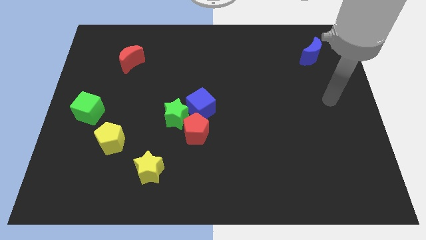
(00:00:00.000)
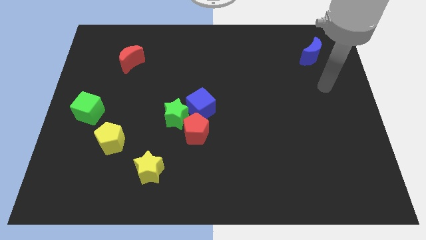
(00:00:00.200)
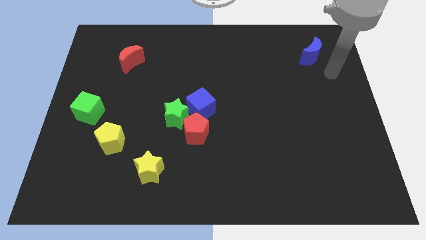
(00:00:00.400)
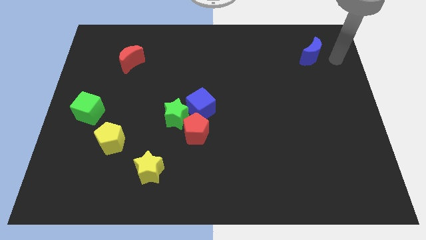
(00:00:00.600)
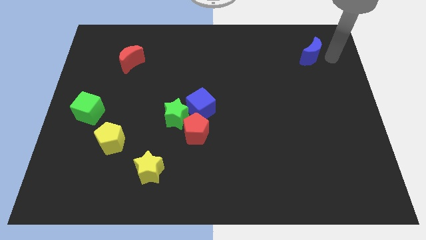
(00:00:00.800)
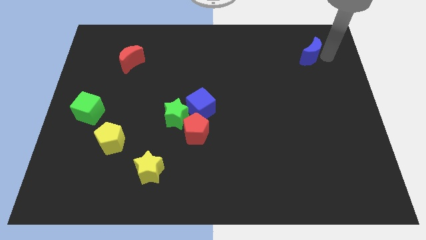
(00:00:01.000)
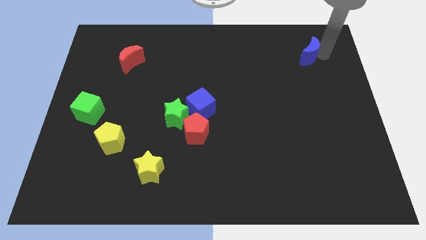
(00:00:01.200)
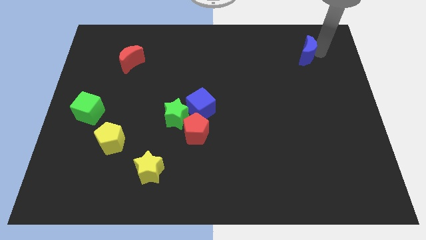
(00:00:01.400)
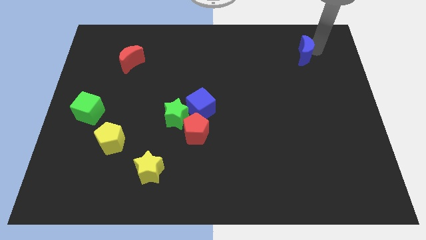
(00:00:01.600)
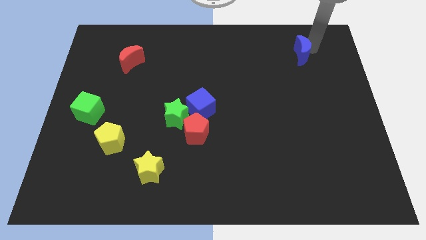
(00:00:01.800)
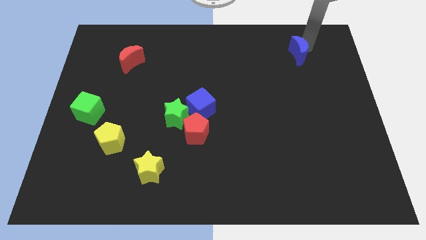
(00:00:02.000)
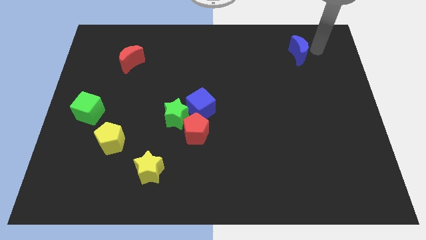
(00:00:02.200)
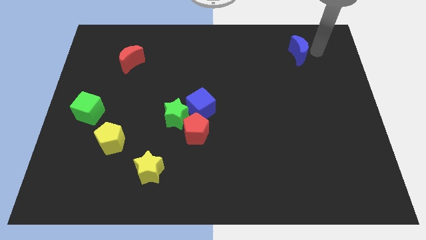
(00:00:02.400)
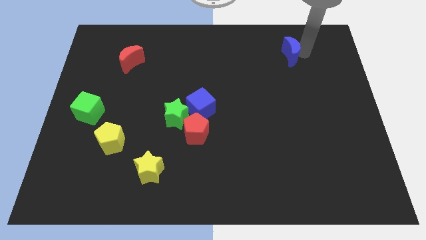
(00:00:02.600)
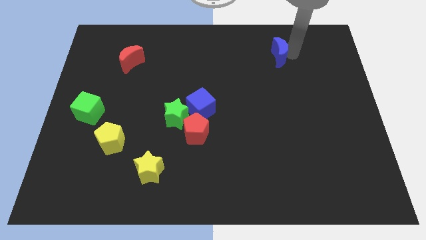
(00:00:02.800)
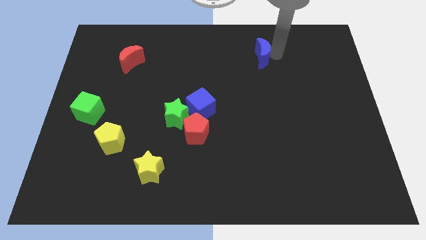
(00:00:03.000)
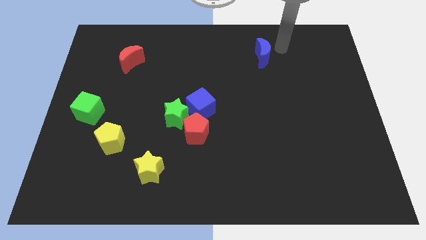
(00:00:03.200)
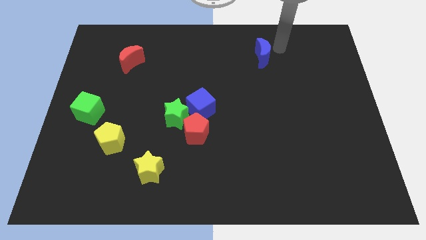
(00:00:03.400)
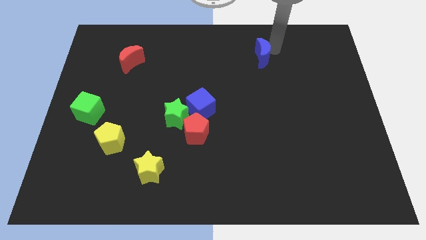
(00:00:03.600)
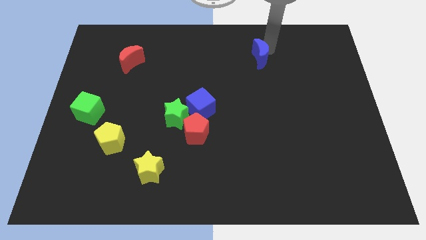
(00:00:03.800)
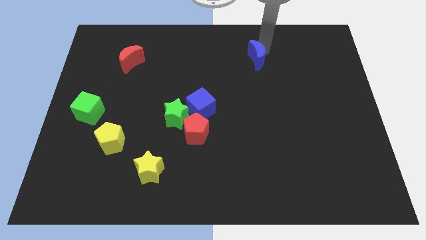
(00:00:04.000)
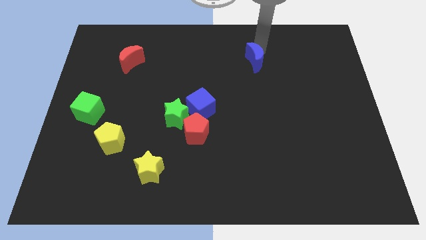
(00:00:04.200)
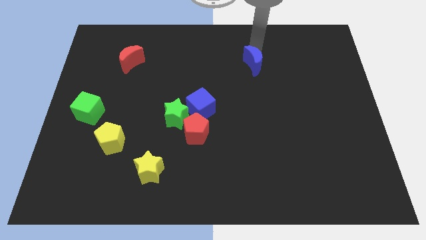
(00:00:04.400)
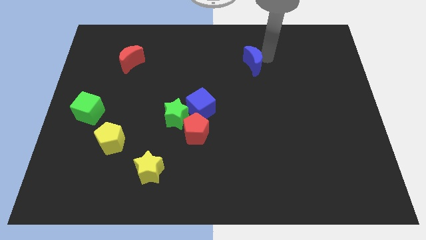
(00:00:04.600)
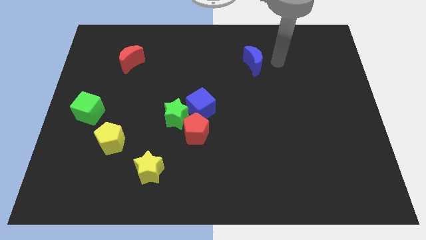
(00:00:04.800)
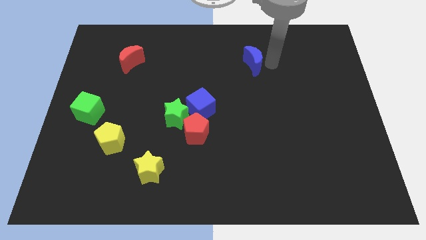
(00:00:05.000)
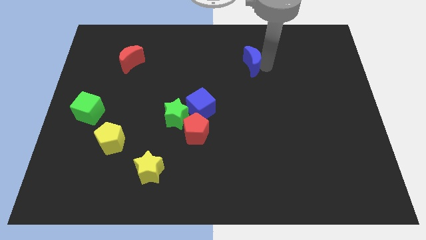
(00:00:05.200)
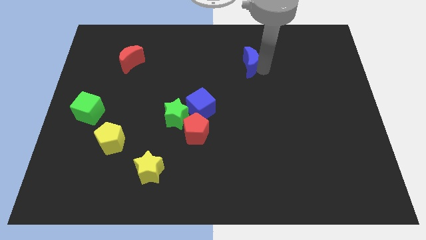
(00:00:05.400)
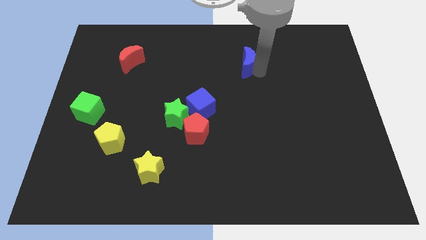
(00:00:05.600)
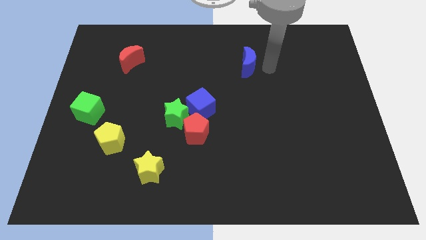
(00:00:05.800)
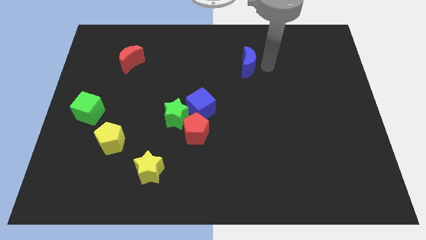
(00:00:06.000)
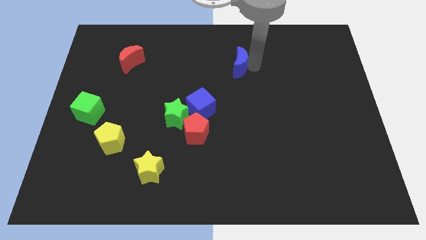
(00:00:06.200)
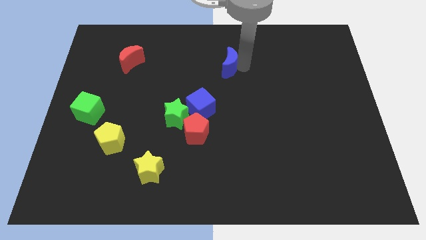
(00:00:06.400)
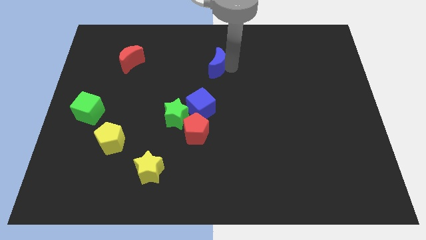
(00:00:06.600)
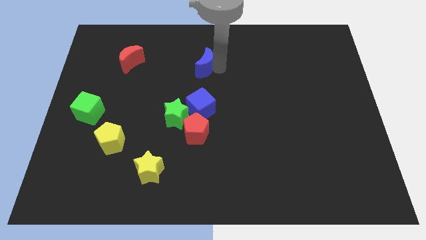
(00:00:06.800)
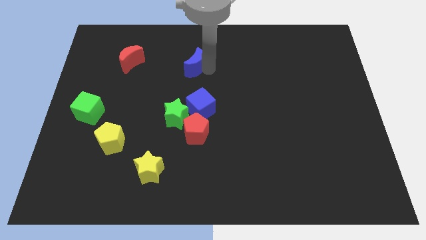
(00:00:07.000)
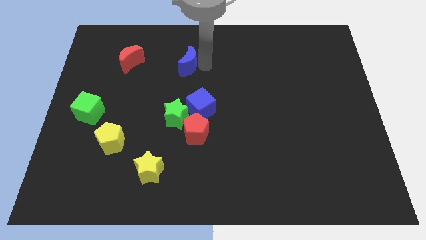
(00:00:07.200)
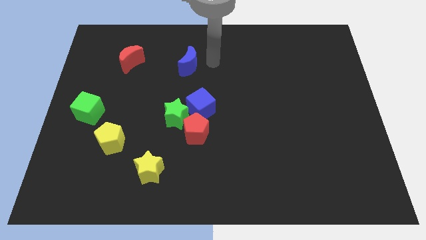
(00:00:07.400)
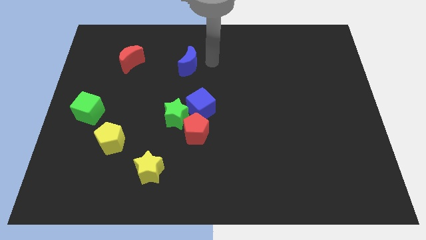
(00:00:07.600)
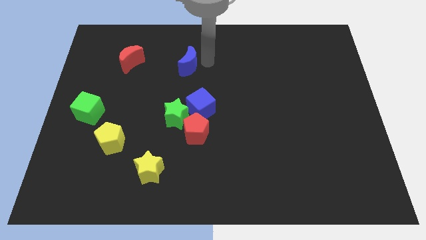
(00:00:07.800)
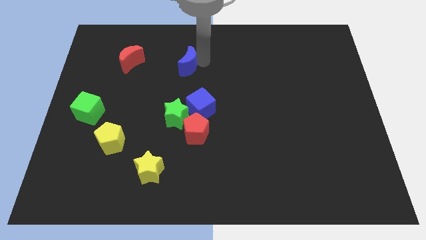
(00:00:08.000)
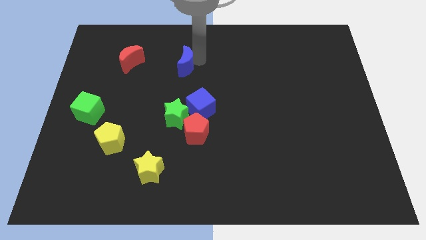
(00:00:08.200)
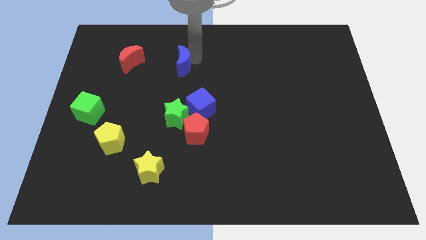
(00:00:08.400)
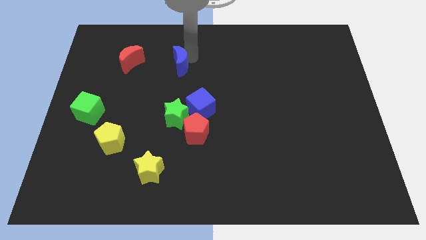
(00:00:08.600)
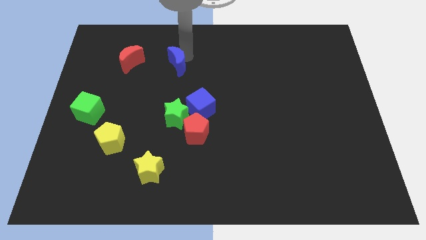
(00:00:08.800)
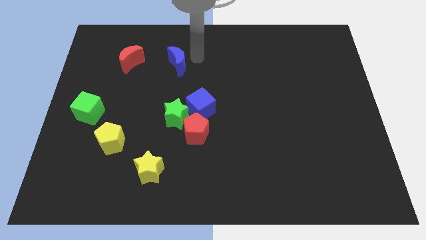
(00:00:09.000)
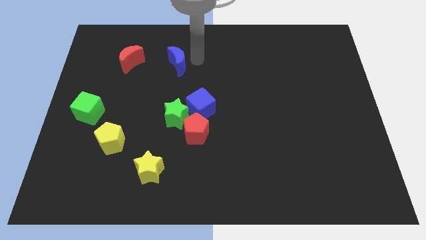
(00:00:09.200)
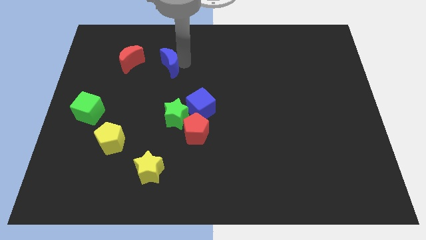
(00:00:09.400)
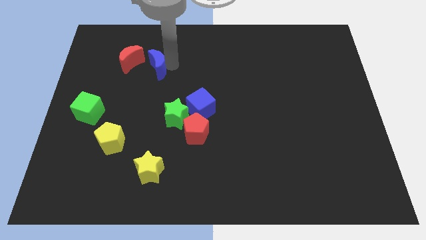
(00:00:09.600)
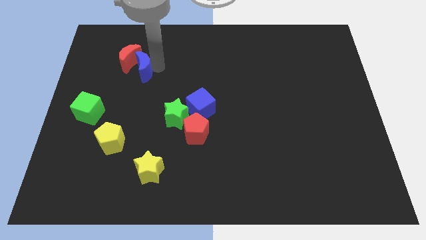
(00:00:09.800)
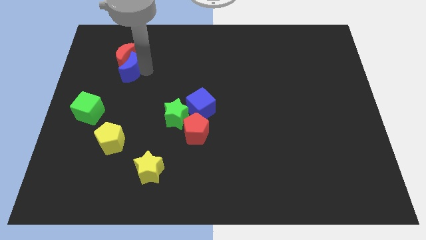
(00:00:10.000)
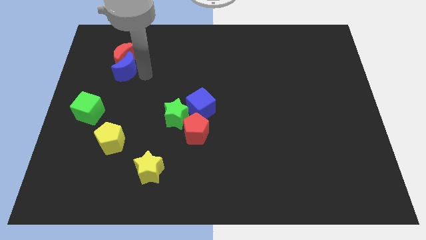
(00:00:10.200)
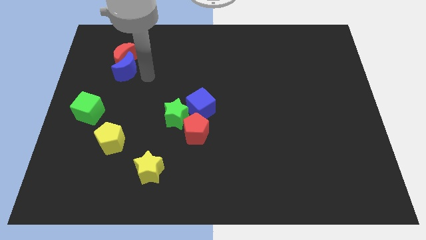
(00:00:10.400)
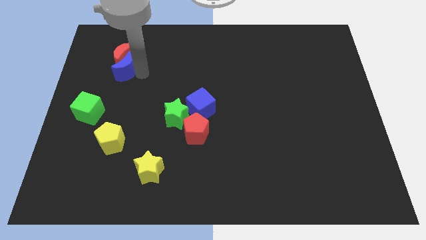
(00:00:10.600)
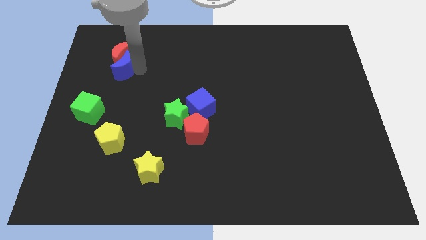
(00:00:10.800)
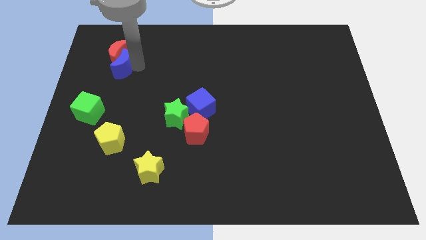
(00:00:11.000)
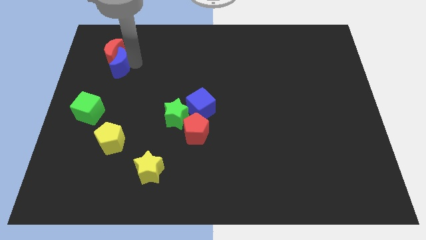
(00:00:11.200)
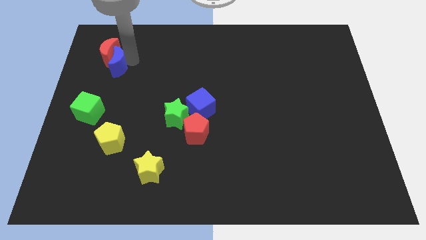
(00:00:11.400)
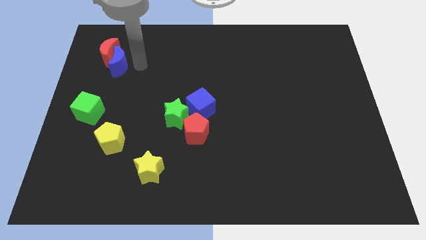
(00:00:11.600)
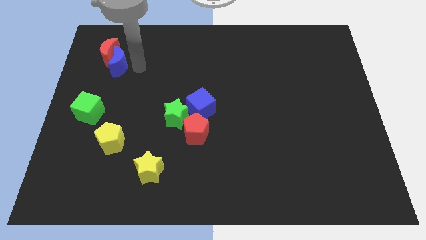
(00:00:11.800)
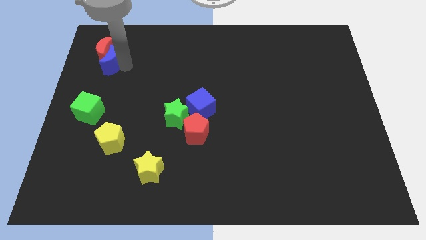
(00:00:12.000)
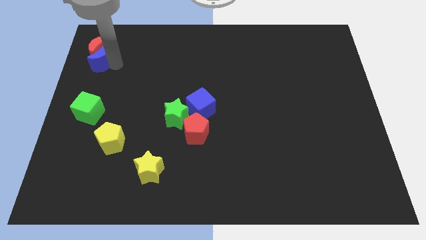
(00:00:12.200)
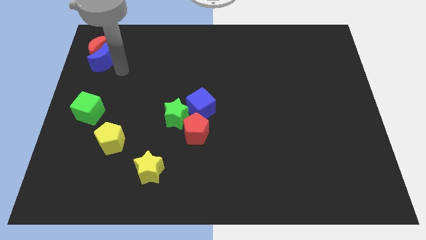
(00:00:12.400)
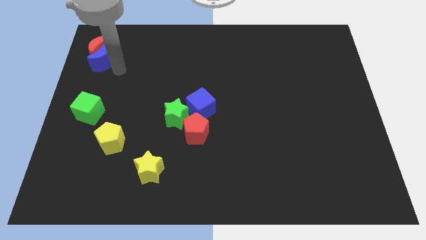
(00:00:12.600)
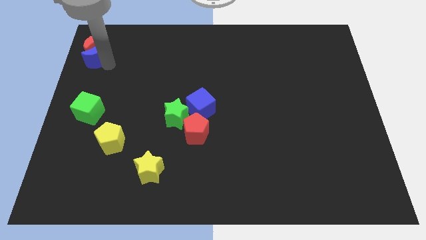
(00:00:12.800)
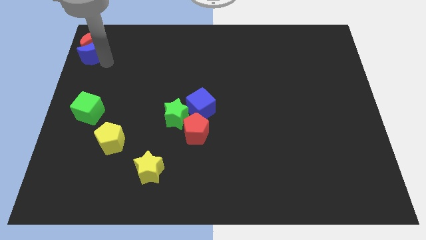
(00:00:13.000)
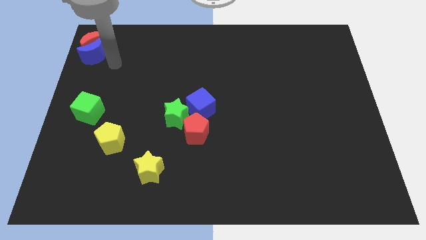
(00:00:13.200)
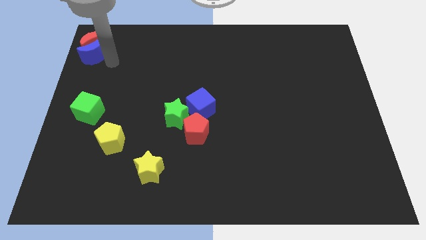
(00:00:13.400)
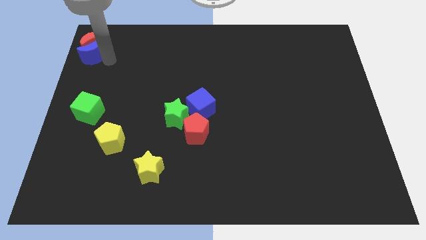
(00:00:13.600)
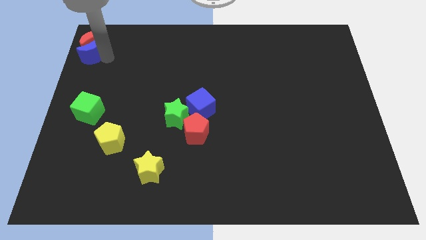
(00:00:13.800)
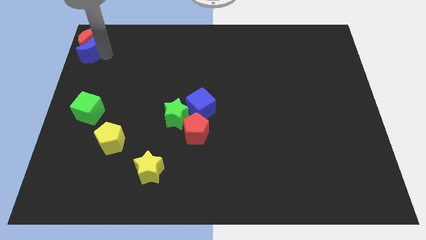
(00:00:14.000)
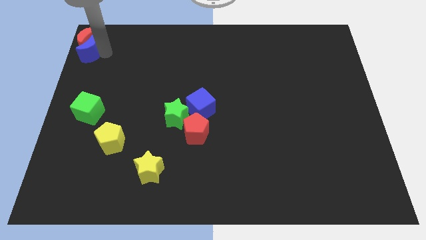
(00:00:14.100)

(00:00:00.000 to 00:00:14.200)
put the blue moon to the top left of the board

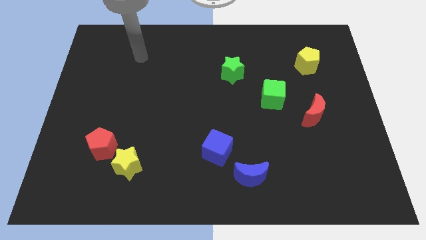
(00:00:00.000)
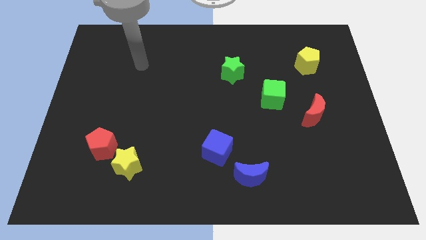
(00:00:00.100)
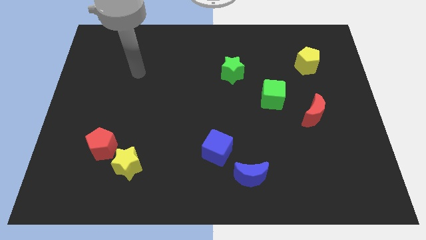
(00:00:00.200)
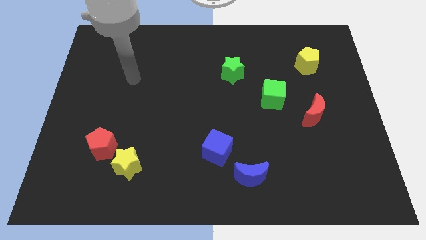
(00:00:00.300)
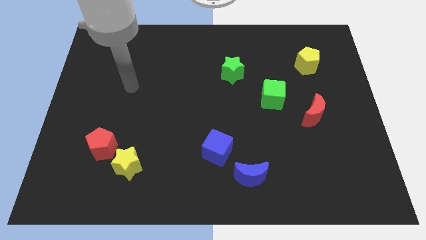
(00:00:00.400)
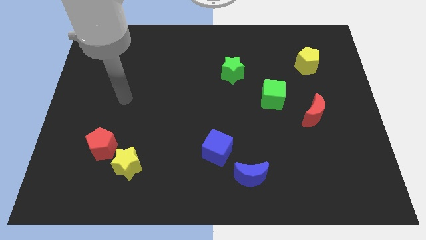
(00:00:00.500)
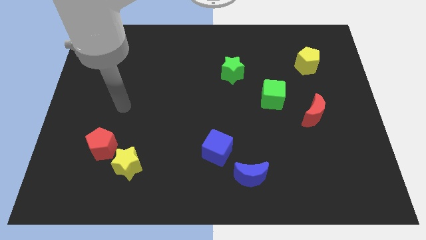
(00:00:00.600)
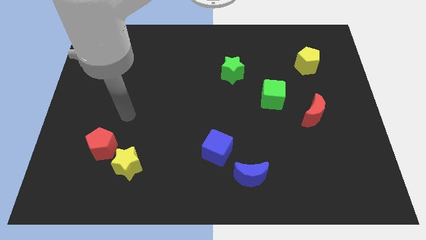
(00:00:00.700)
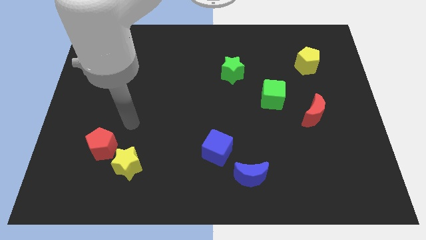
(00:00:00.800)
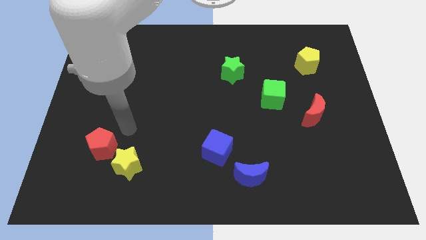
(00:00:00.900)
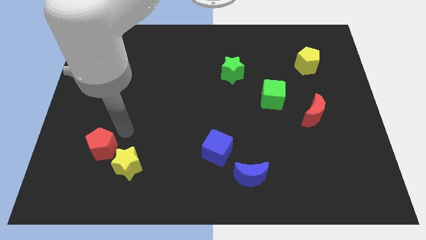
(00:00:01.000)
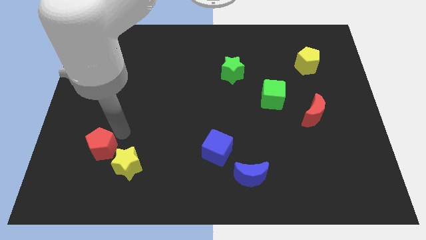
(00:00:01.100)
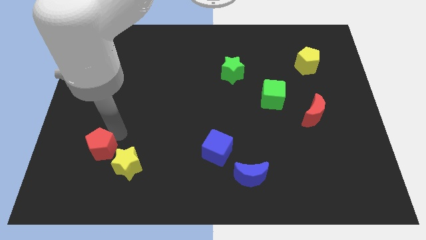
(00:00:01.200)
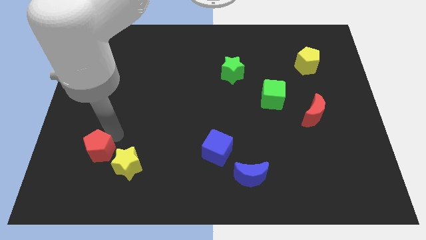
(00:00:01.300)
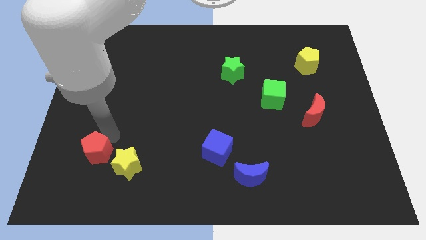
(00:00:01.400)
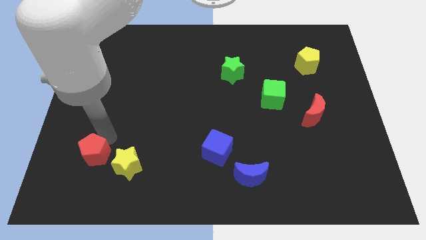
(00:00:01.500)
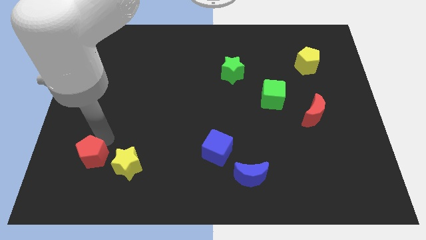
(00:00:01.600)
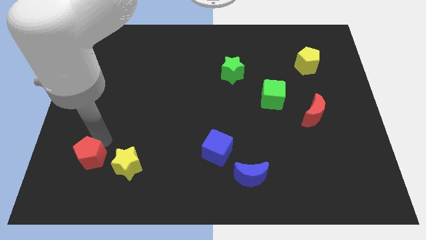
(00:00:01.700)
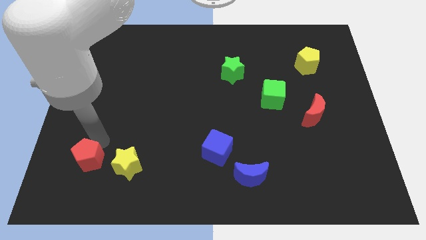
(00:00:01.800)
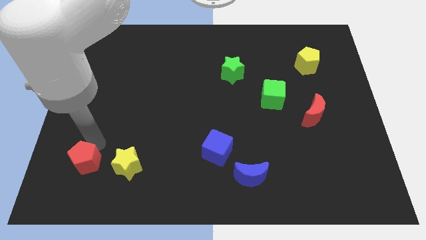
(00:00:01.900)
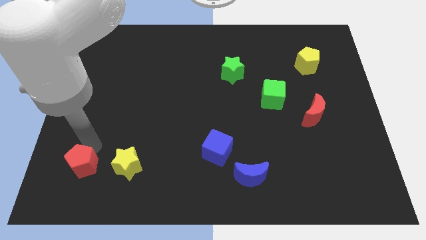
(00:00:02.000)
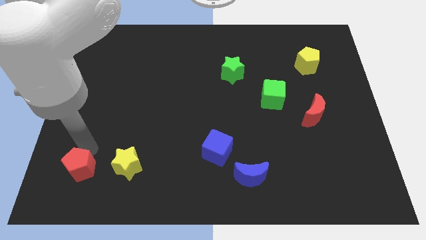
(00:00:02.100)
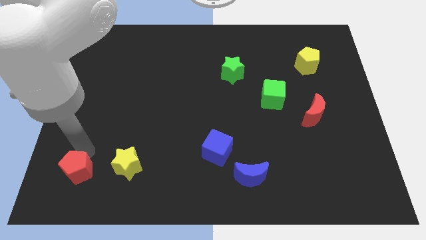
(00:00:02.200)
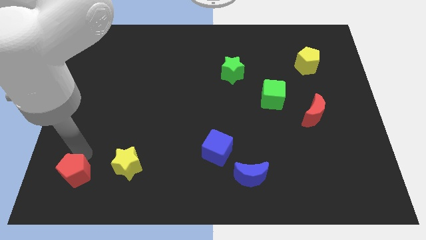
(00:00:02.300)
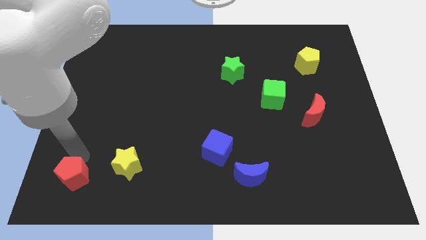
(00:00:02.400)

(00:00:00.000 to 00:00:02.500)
put the red pentagon to the bottom left corner
